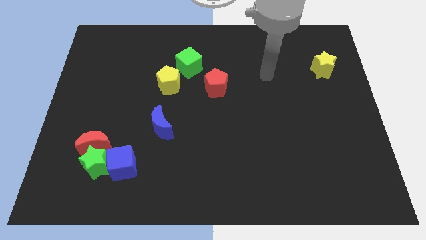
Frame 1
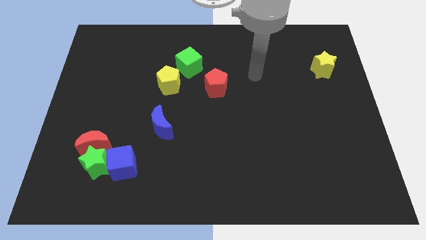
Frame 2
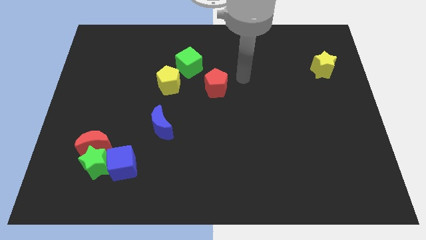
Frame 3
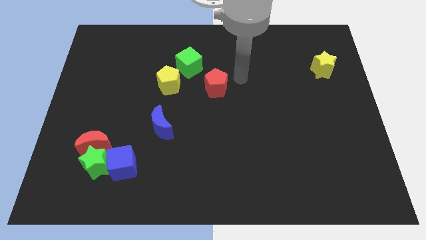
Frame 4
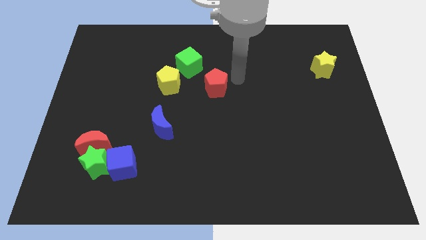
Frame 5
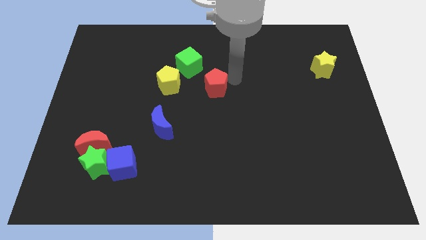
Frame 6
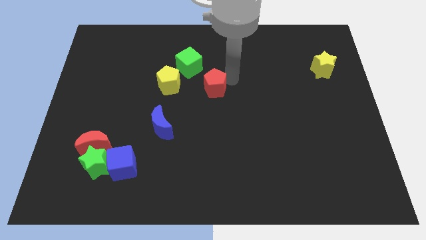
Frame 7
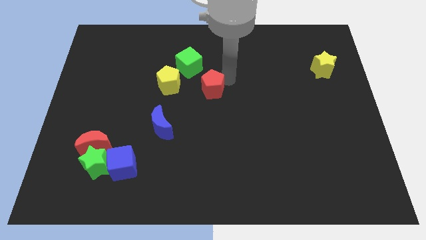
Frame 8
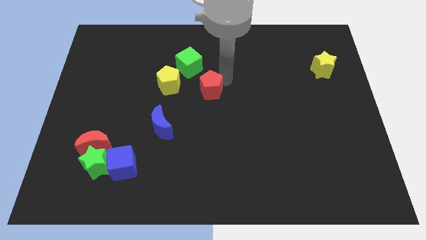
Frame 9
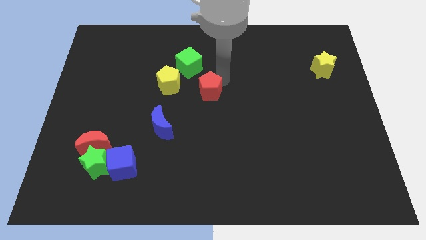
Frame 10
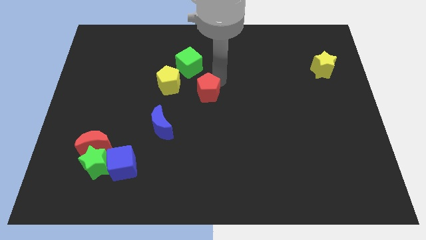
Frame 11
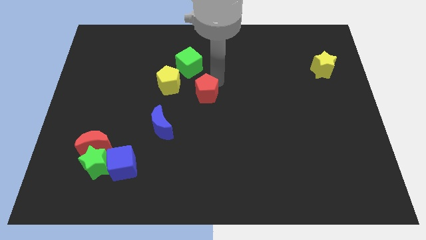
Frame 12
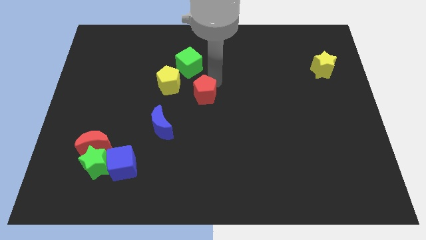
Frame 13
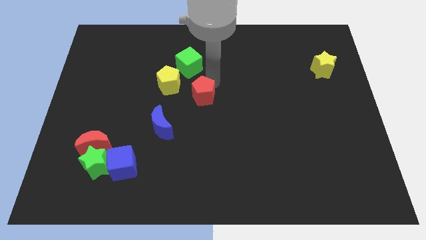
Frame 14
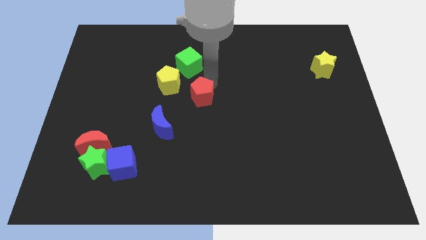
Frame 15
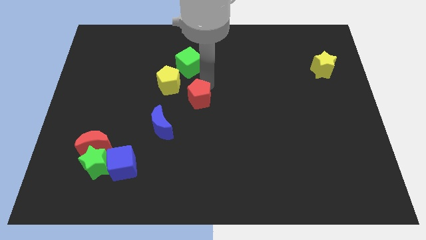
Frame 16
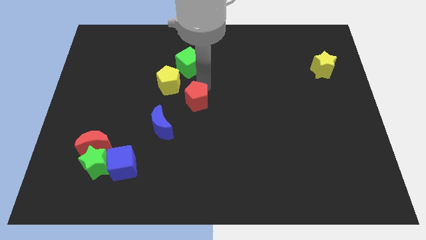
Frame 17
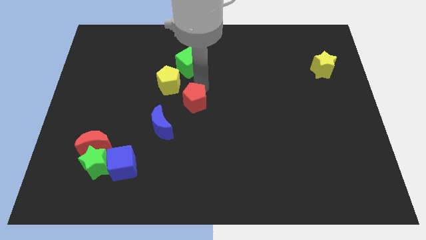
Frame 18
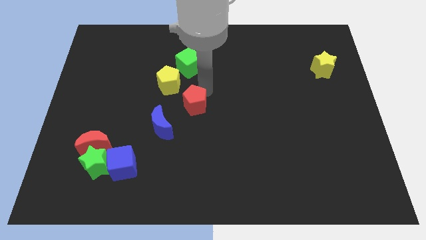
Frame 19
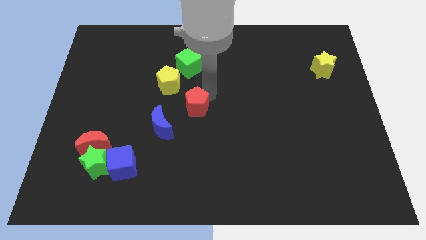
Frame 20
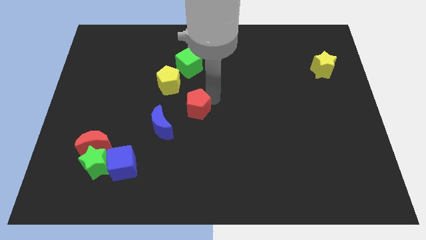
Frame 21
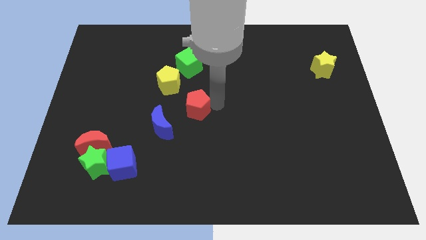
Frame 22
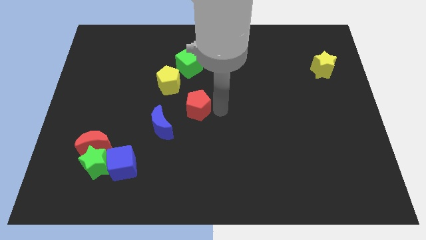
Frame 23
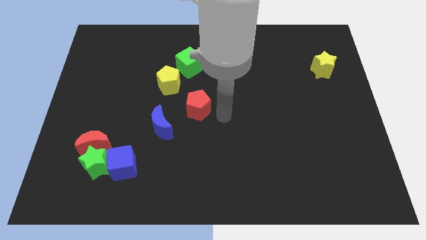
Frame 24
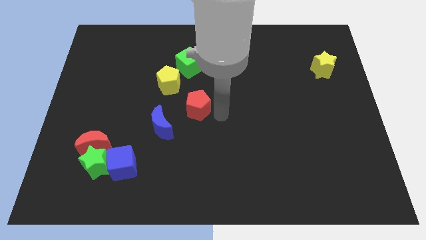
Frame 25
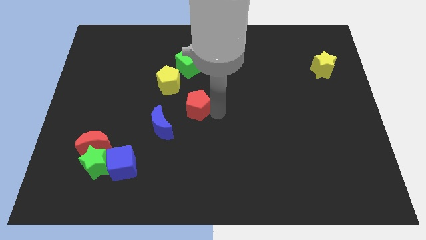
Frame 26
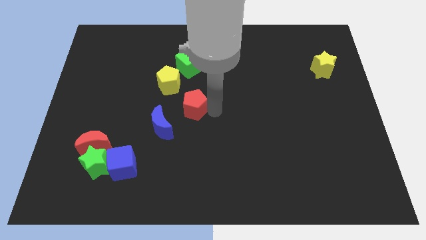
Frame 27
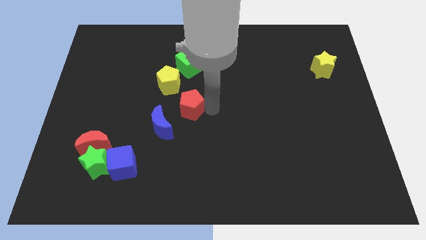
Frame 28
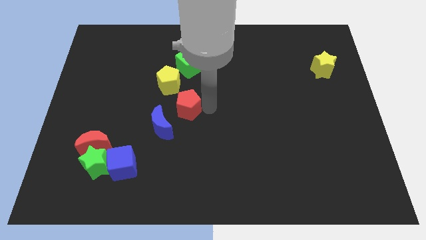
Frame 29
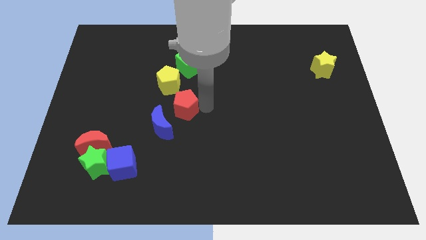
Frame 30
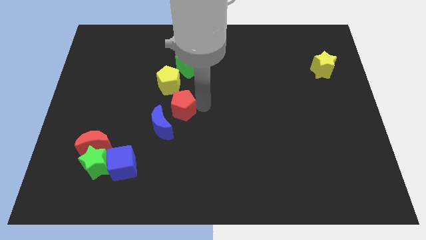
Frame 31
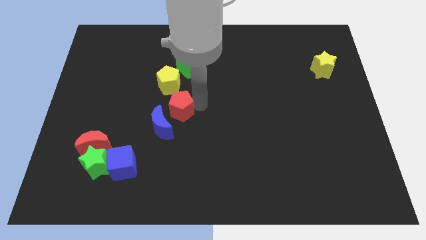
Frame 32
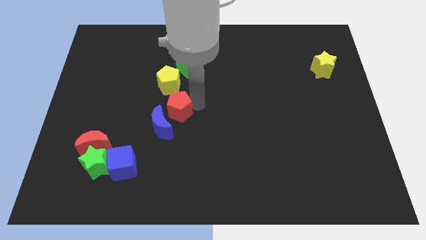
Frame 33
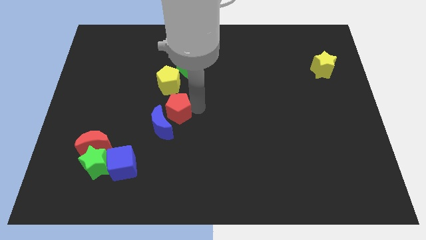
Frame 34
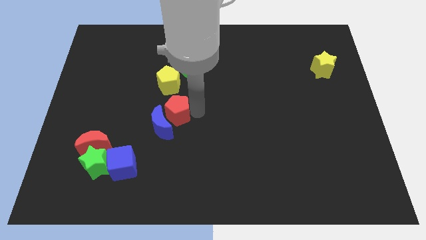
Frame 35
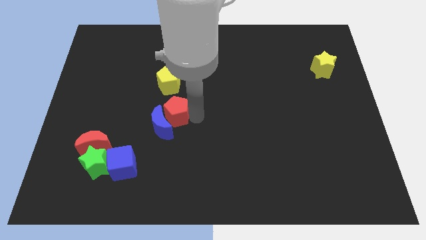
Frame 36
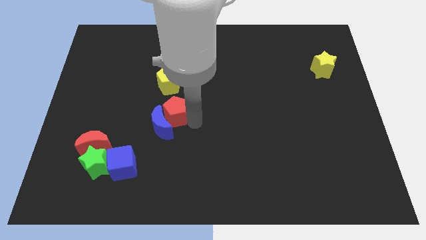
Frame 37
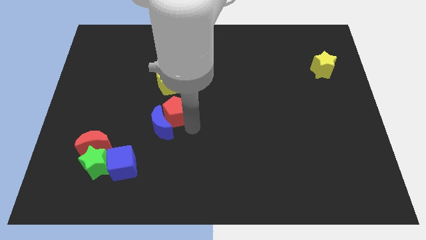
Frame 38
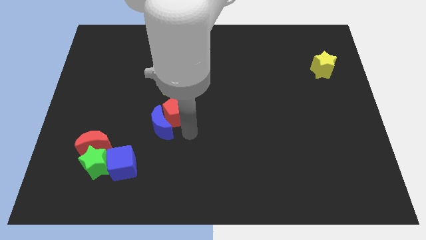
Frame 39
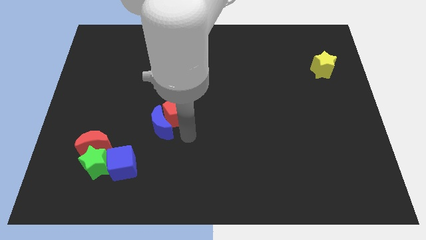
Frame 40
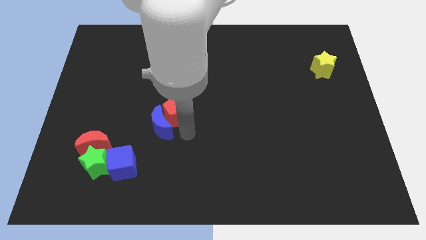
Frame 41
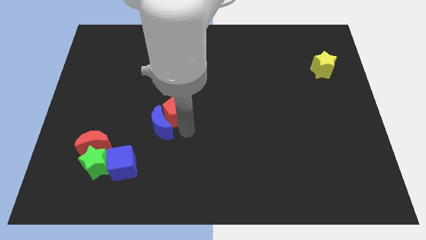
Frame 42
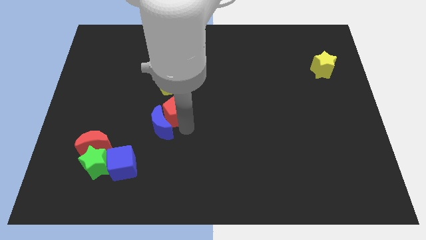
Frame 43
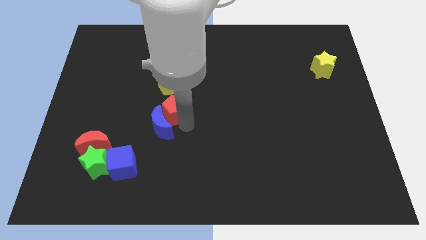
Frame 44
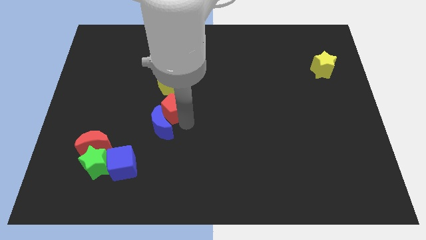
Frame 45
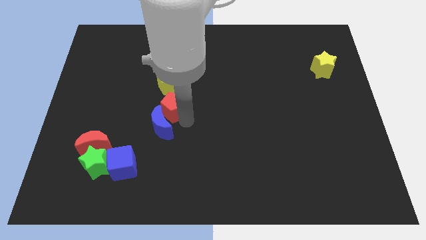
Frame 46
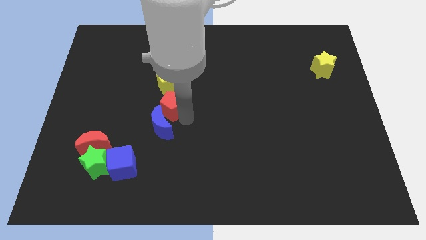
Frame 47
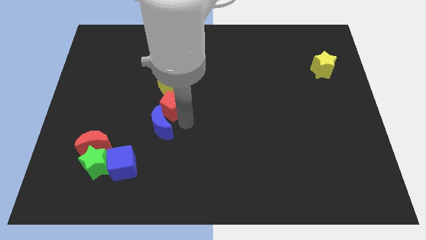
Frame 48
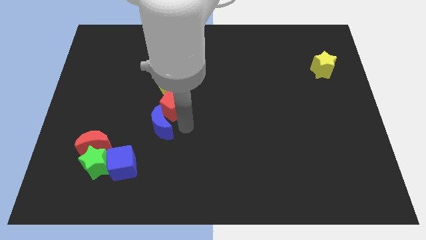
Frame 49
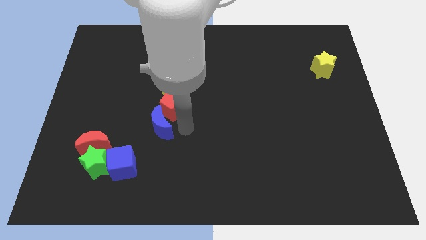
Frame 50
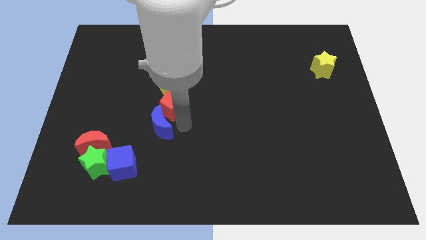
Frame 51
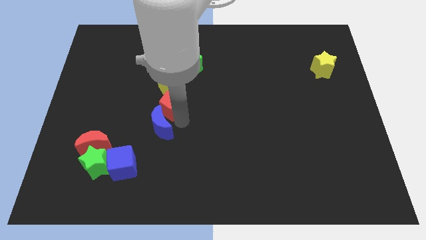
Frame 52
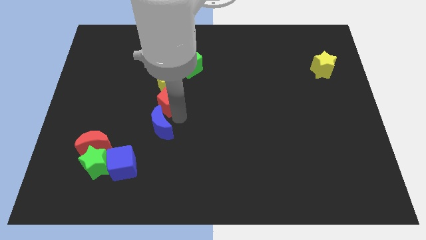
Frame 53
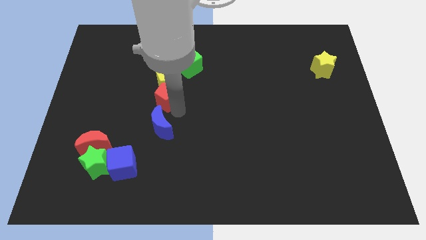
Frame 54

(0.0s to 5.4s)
slide the red pentagon diagonally down and to the left of the yellow pentagon

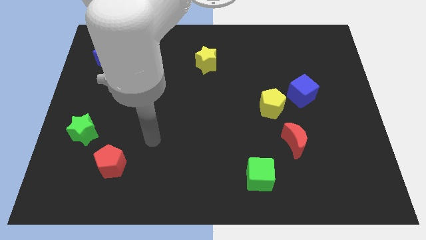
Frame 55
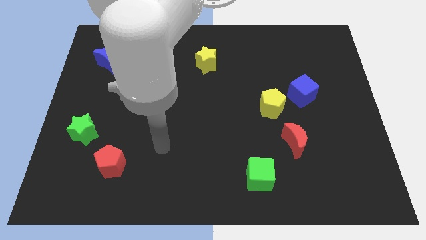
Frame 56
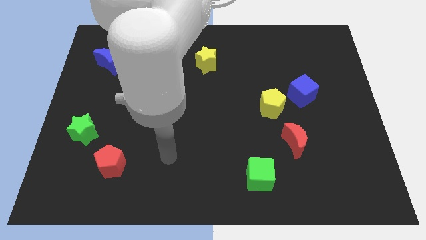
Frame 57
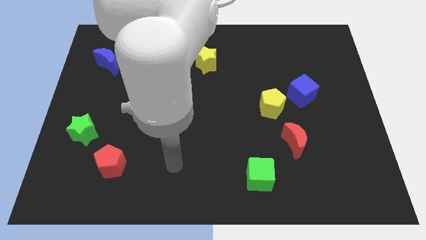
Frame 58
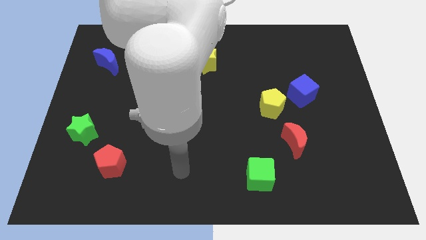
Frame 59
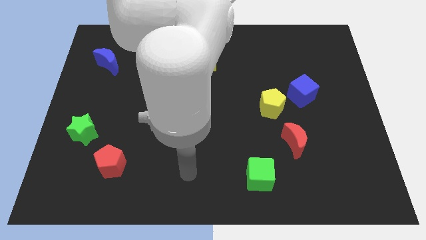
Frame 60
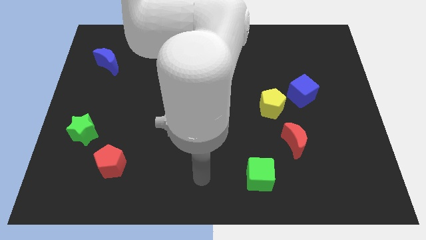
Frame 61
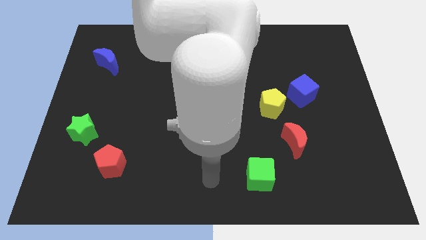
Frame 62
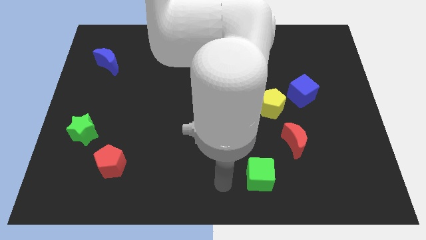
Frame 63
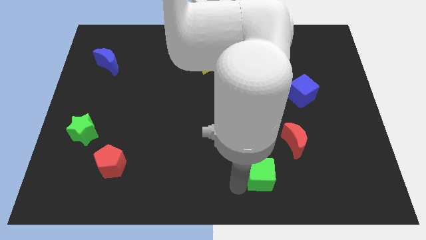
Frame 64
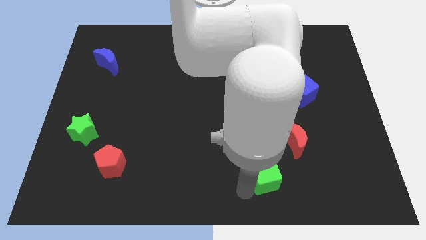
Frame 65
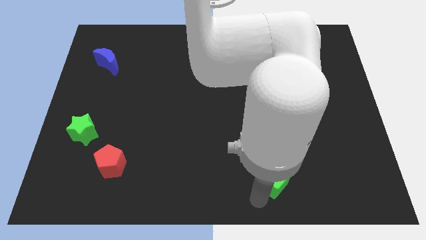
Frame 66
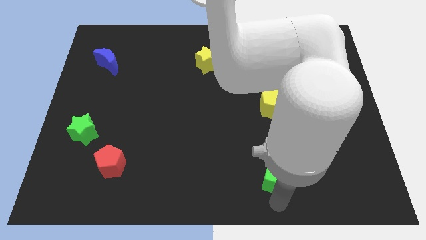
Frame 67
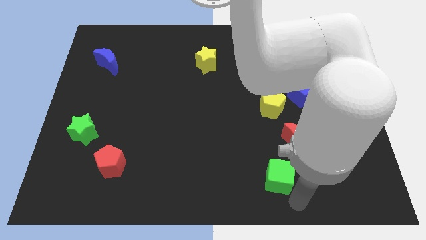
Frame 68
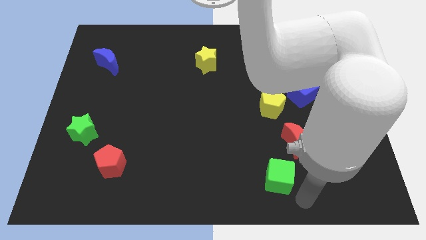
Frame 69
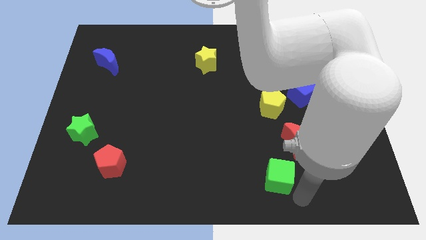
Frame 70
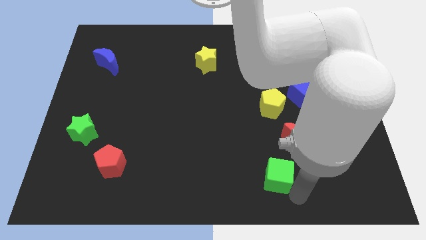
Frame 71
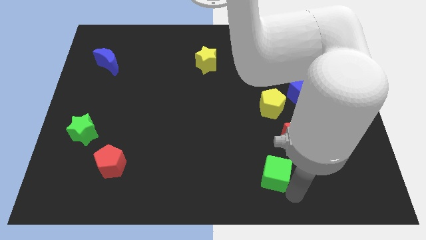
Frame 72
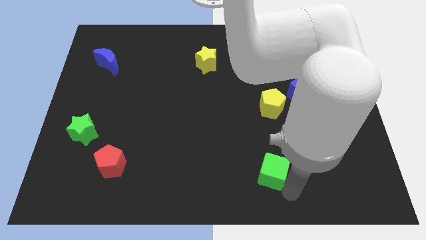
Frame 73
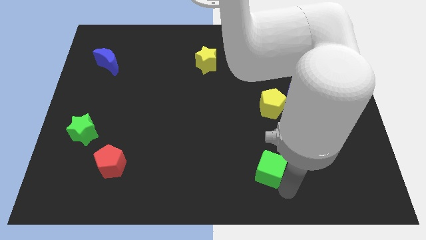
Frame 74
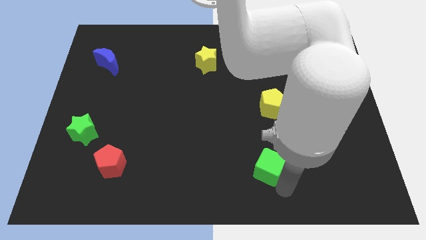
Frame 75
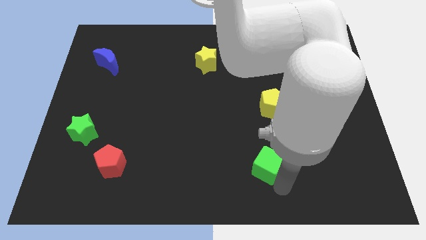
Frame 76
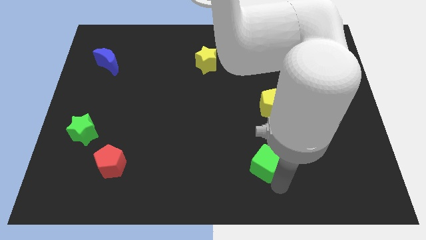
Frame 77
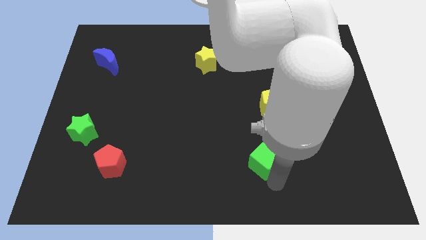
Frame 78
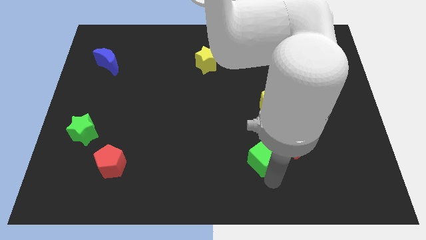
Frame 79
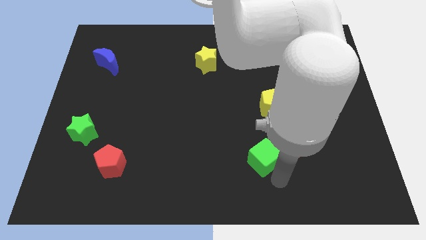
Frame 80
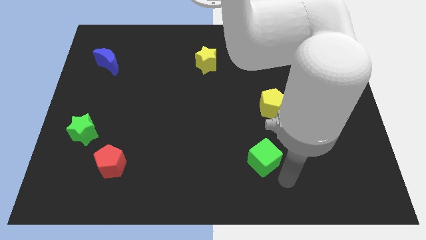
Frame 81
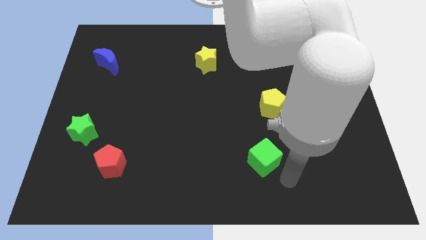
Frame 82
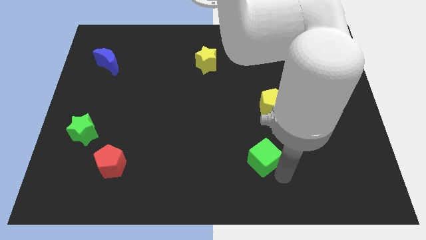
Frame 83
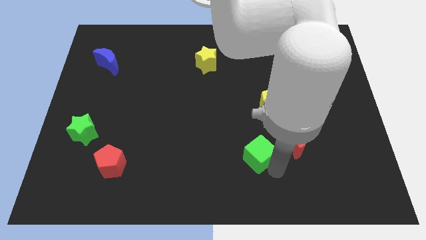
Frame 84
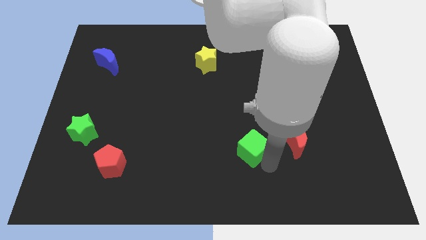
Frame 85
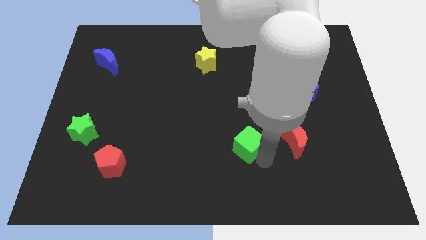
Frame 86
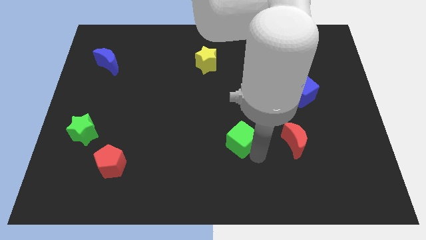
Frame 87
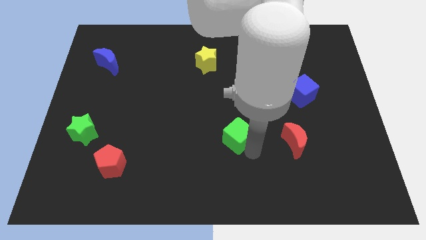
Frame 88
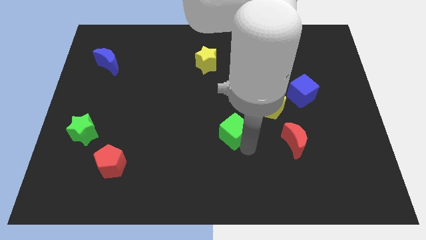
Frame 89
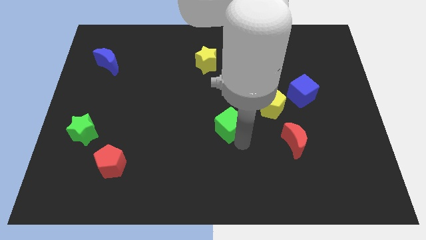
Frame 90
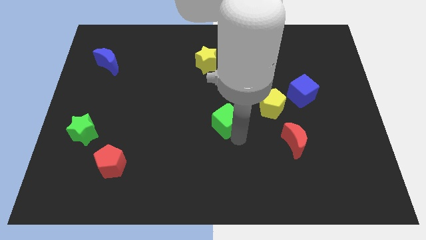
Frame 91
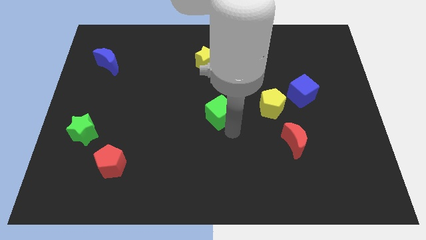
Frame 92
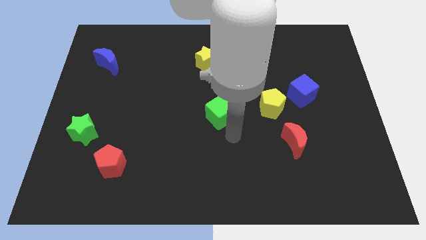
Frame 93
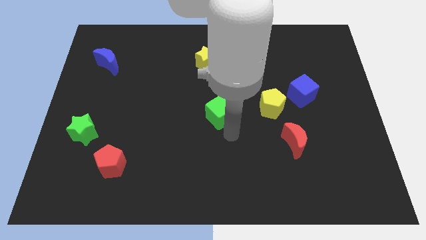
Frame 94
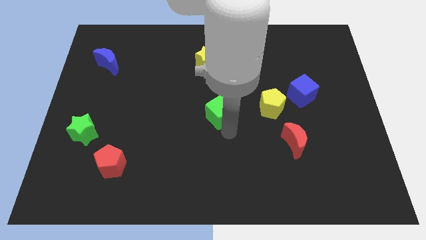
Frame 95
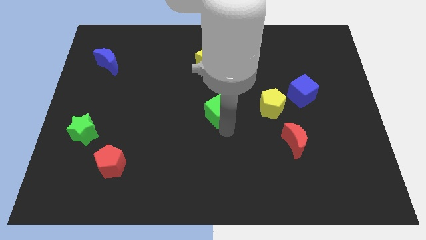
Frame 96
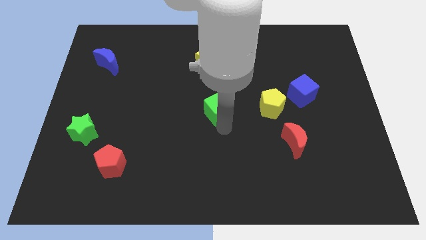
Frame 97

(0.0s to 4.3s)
put the green cube below the yellow star
